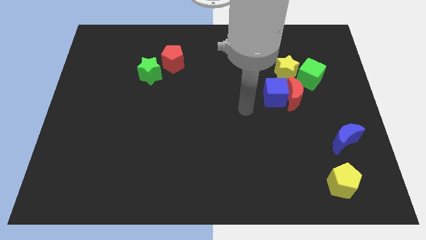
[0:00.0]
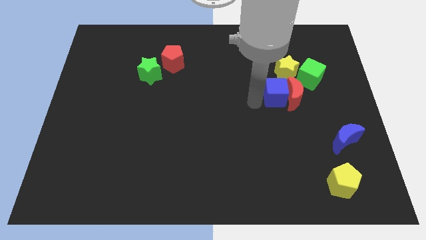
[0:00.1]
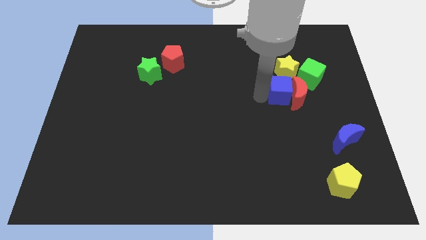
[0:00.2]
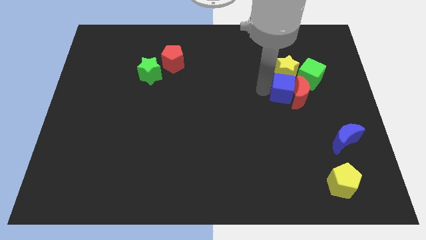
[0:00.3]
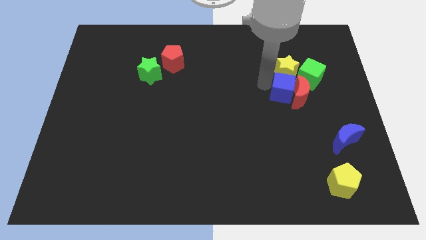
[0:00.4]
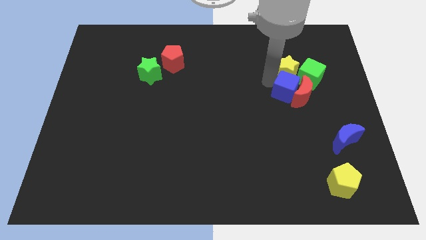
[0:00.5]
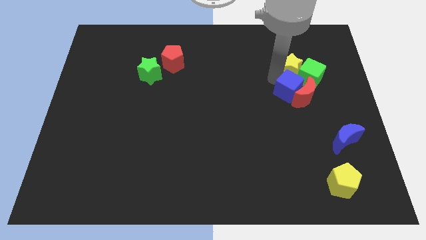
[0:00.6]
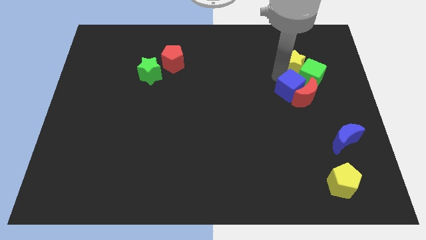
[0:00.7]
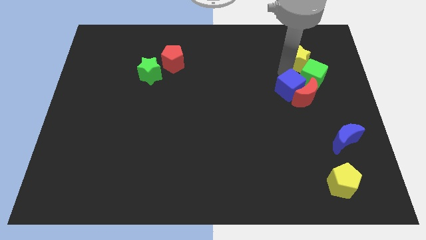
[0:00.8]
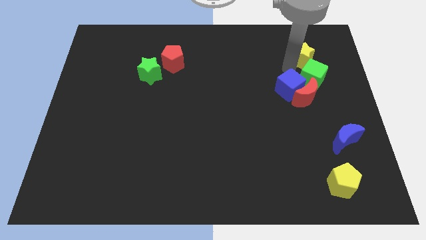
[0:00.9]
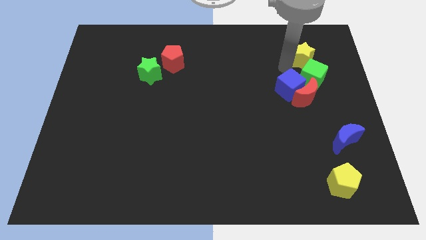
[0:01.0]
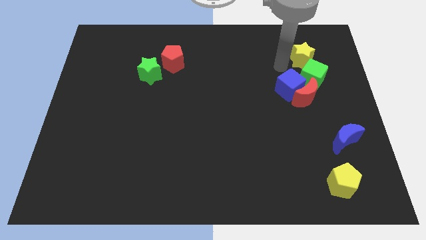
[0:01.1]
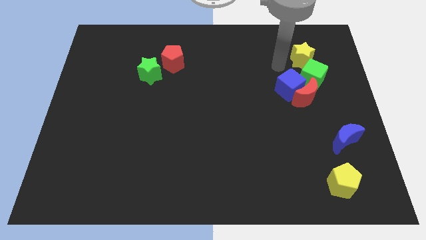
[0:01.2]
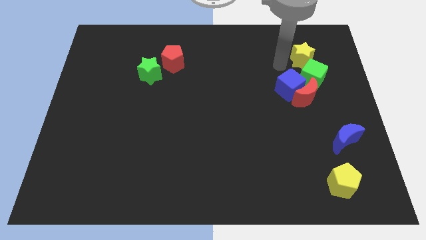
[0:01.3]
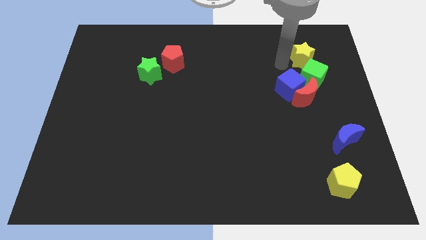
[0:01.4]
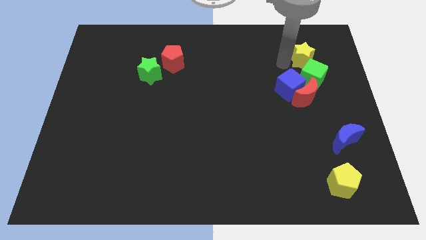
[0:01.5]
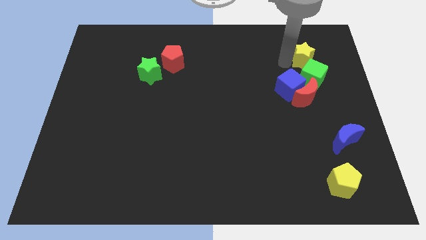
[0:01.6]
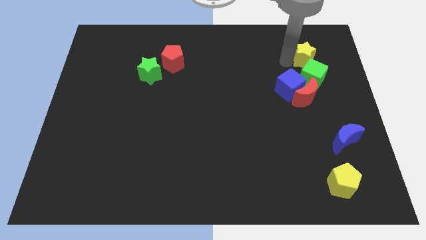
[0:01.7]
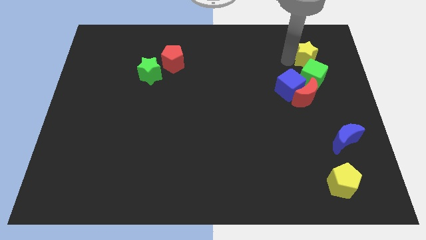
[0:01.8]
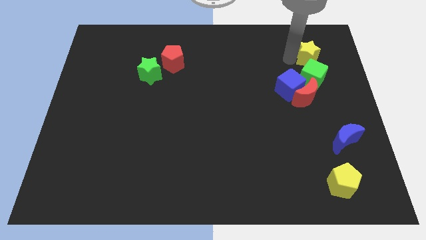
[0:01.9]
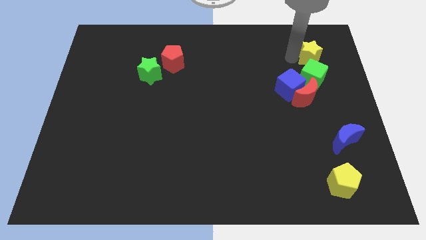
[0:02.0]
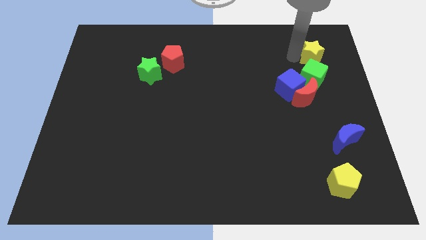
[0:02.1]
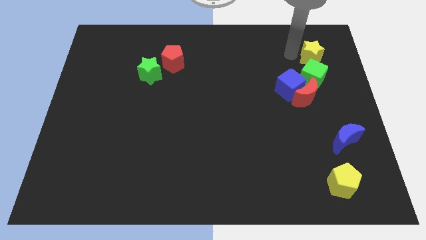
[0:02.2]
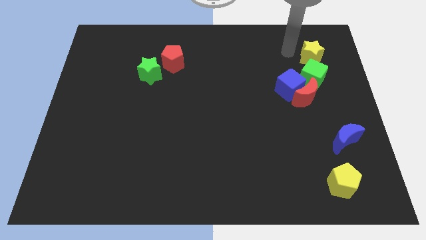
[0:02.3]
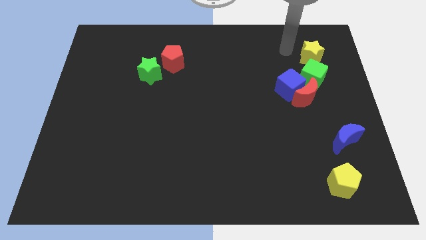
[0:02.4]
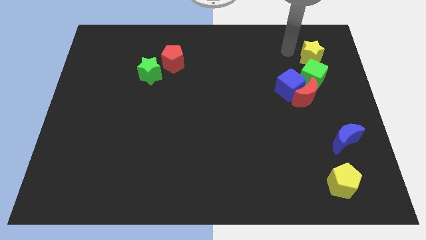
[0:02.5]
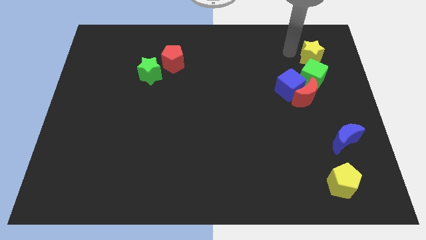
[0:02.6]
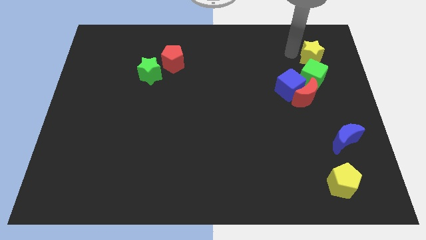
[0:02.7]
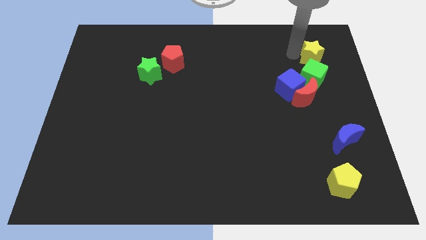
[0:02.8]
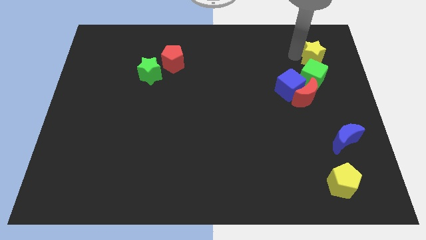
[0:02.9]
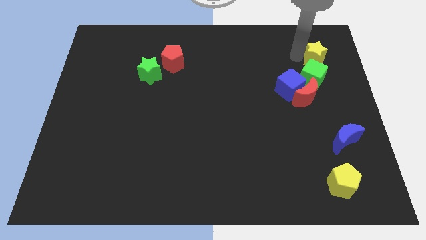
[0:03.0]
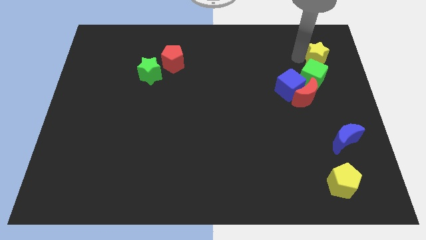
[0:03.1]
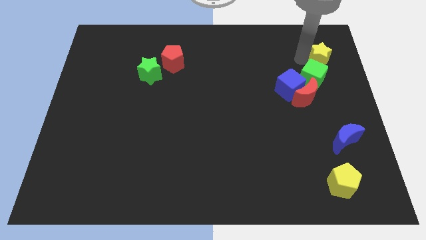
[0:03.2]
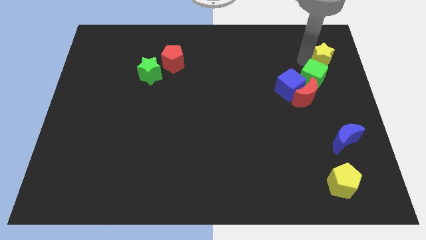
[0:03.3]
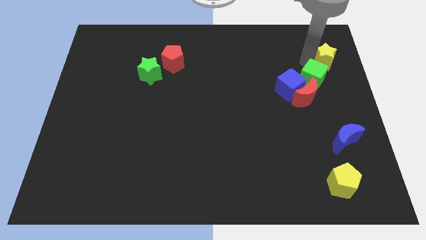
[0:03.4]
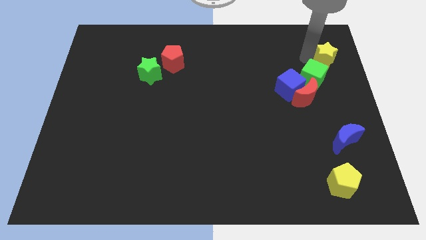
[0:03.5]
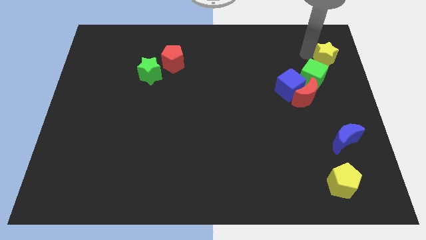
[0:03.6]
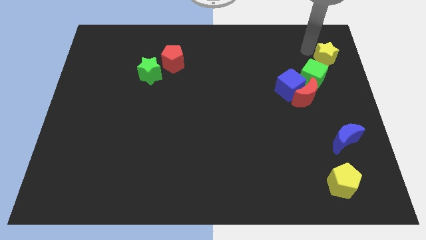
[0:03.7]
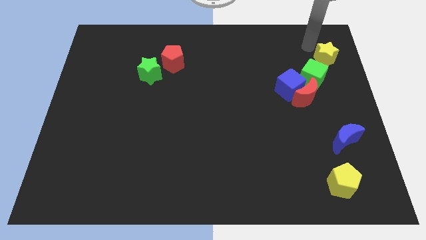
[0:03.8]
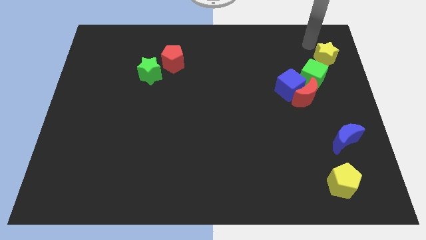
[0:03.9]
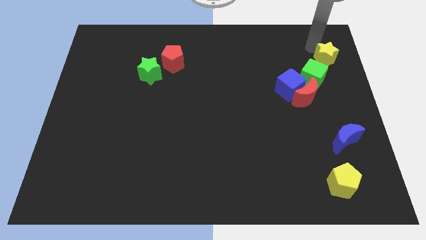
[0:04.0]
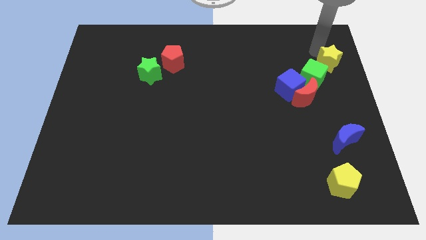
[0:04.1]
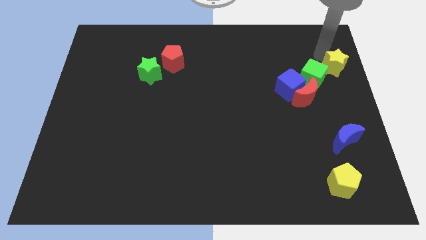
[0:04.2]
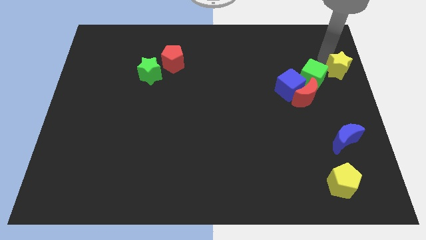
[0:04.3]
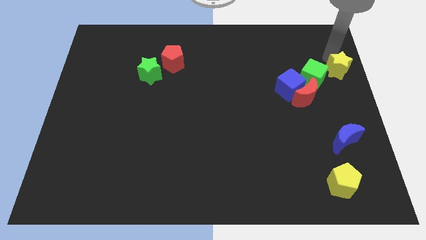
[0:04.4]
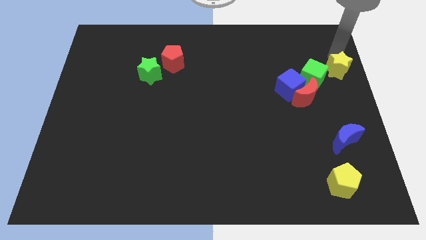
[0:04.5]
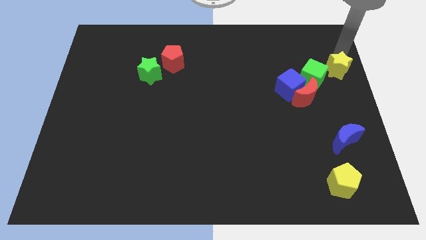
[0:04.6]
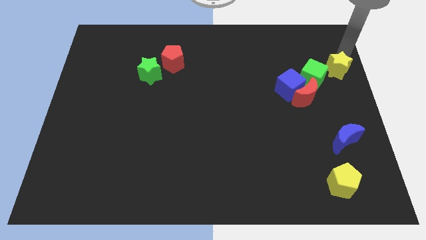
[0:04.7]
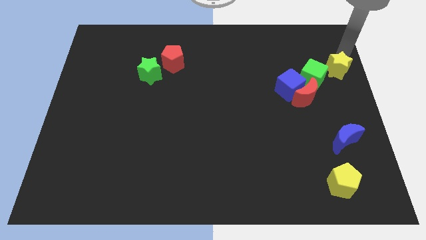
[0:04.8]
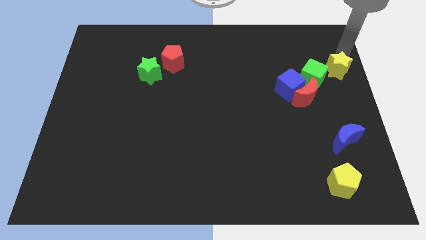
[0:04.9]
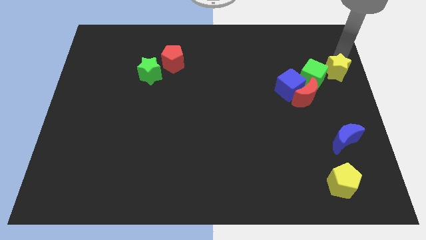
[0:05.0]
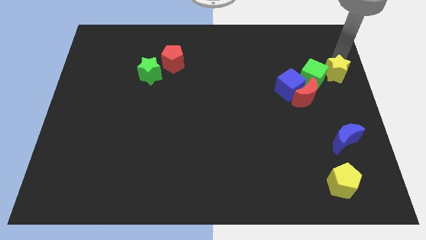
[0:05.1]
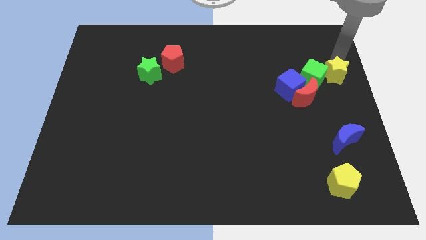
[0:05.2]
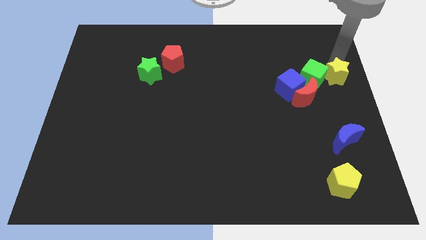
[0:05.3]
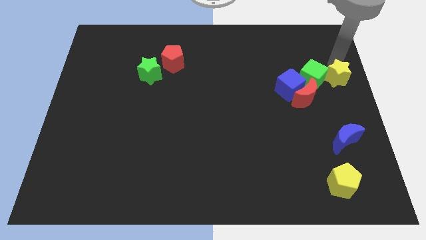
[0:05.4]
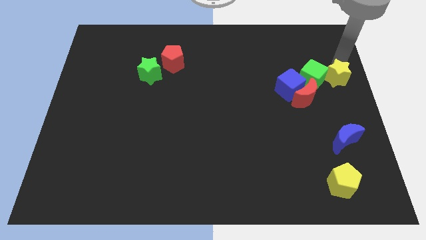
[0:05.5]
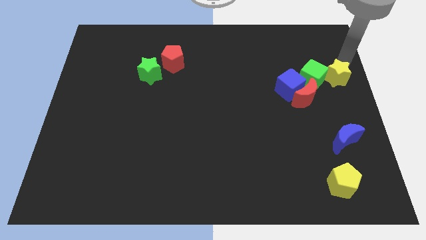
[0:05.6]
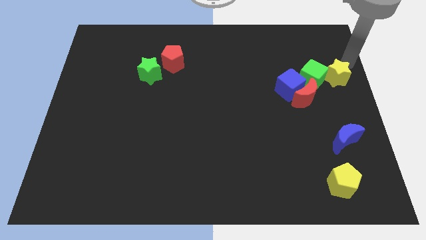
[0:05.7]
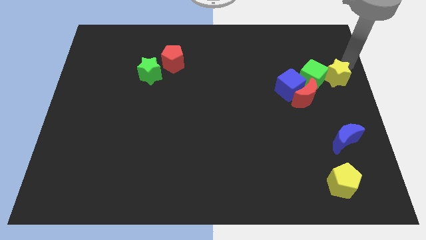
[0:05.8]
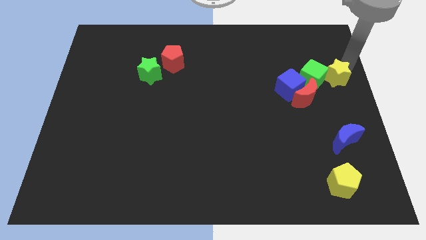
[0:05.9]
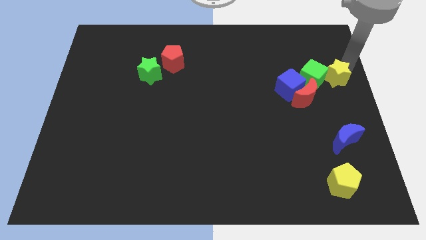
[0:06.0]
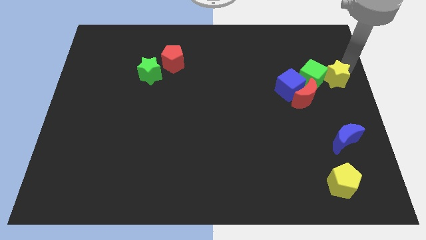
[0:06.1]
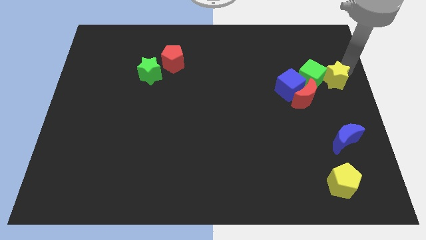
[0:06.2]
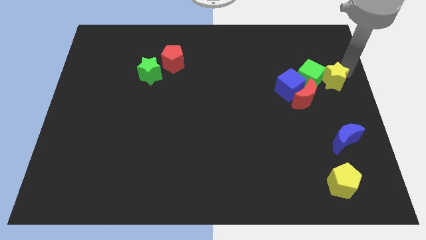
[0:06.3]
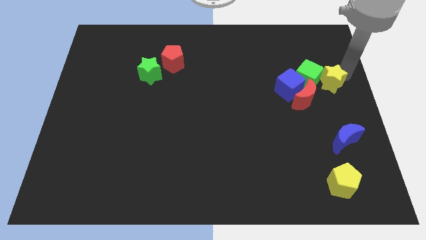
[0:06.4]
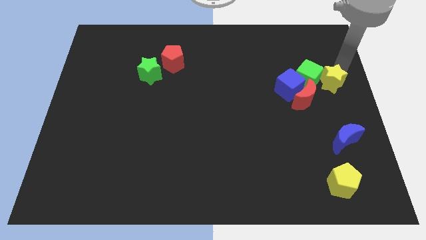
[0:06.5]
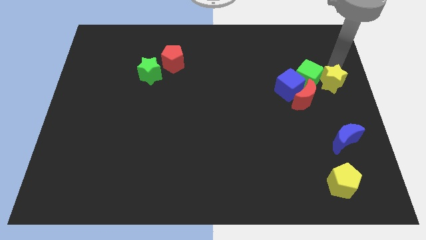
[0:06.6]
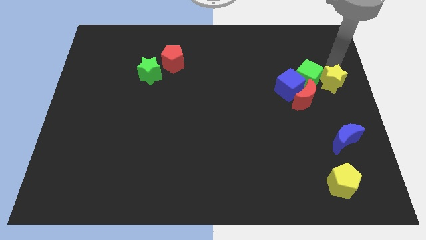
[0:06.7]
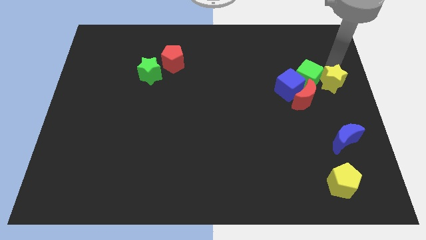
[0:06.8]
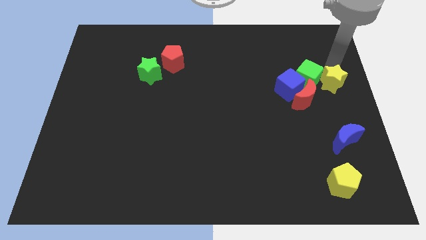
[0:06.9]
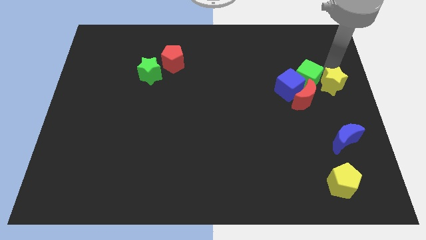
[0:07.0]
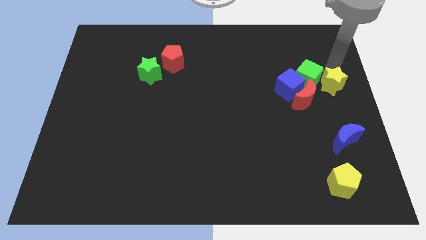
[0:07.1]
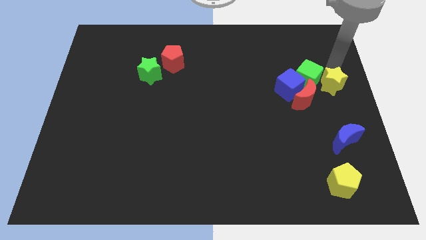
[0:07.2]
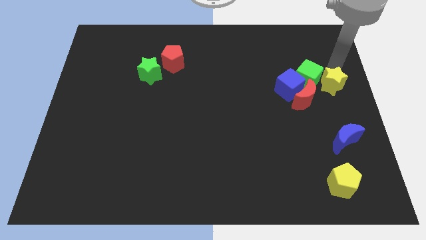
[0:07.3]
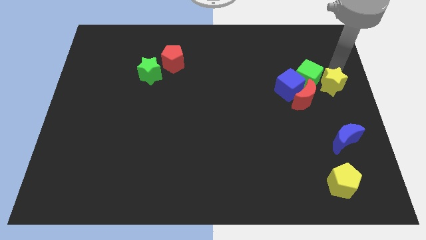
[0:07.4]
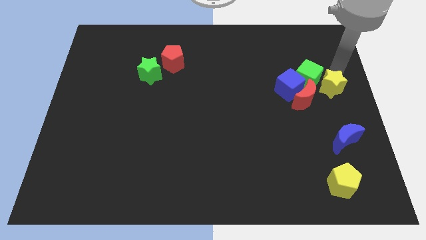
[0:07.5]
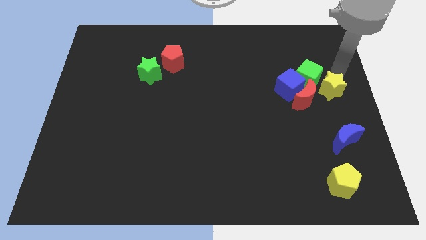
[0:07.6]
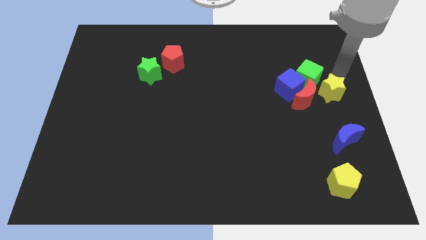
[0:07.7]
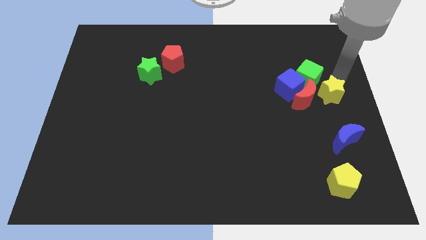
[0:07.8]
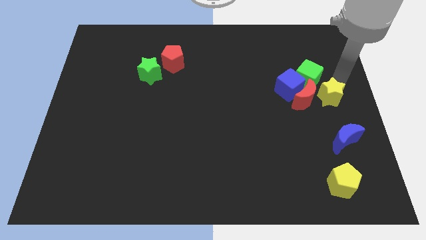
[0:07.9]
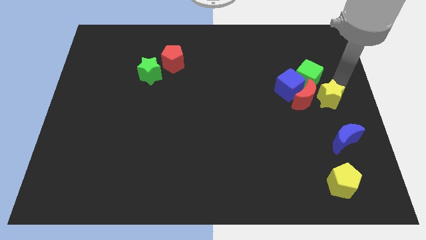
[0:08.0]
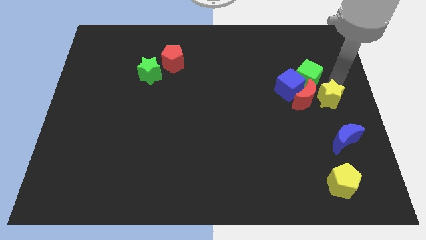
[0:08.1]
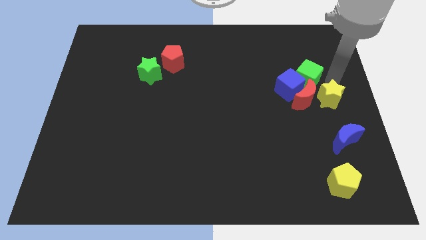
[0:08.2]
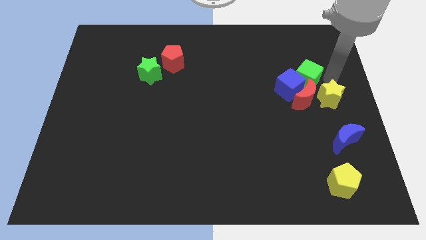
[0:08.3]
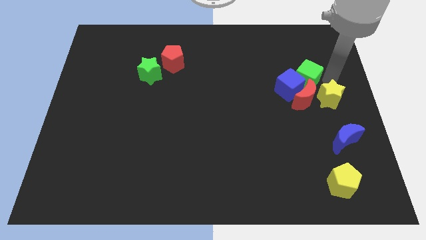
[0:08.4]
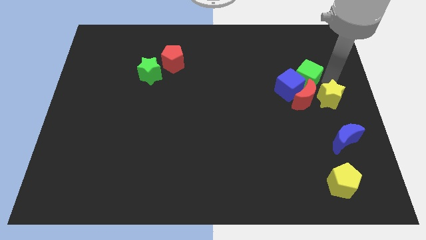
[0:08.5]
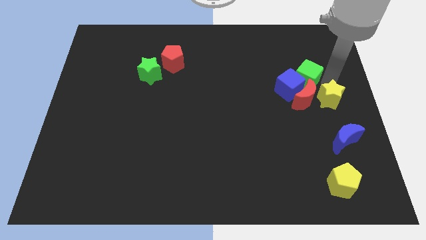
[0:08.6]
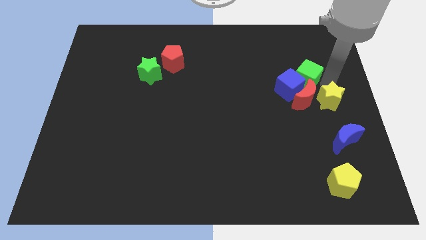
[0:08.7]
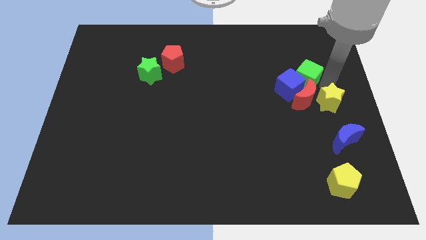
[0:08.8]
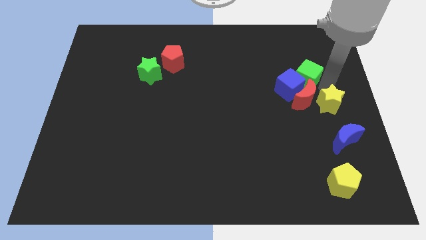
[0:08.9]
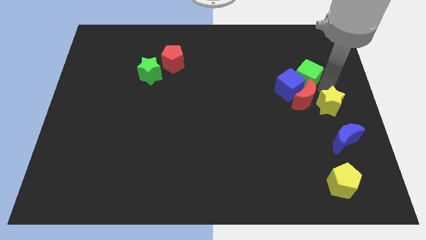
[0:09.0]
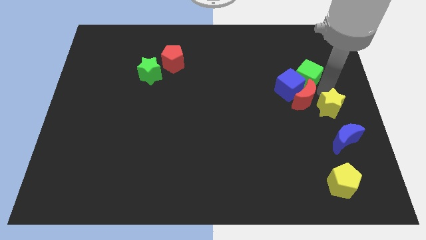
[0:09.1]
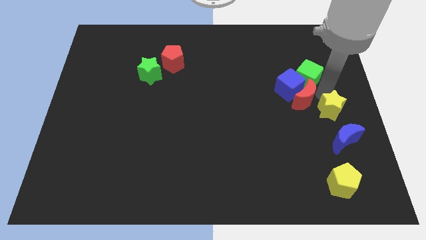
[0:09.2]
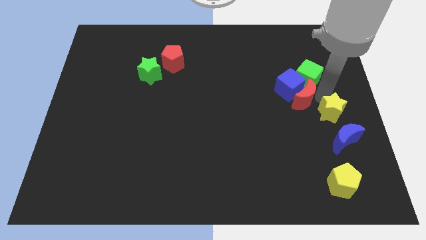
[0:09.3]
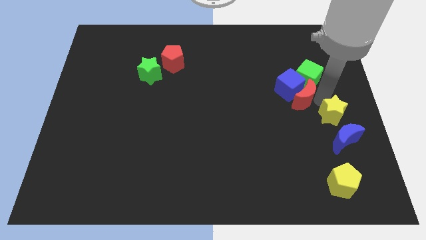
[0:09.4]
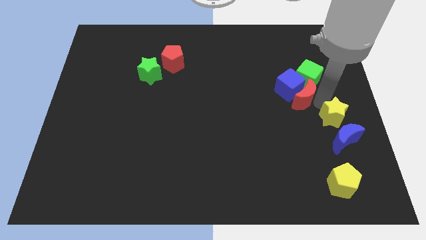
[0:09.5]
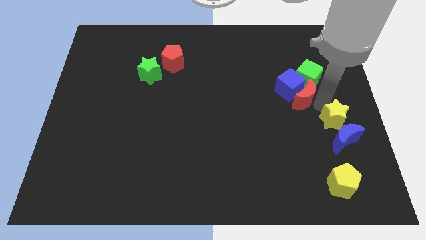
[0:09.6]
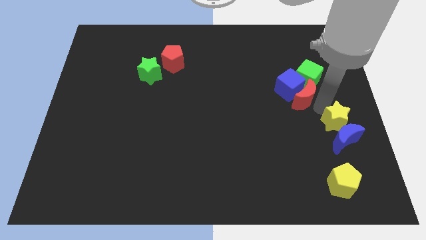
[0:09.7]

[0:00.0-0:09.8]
move the yellow star to the top side of the yellow pentagon
